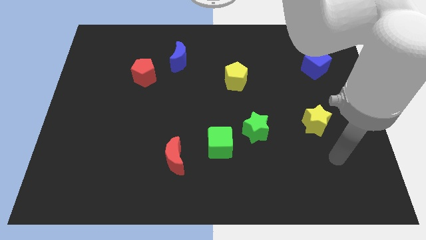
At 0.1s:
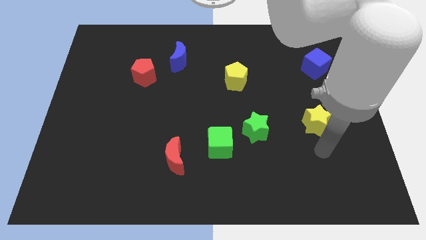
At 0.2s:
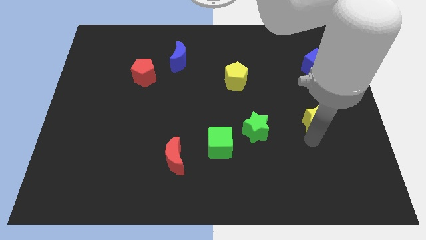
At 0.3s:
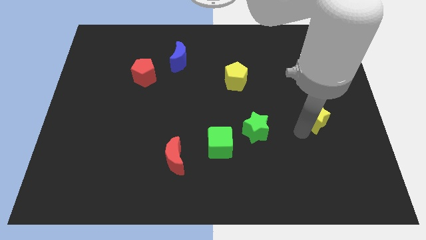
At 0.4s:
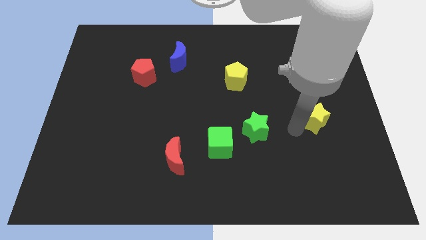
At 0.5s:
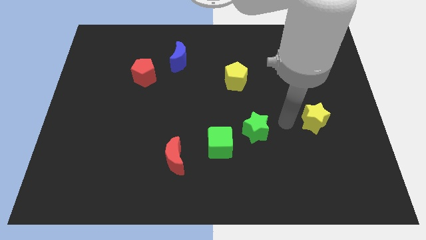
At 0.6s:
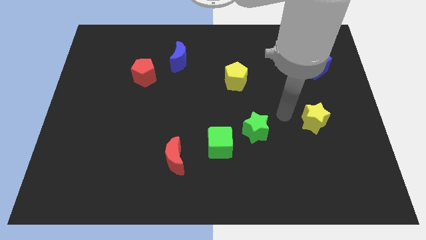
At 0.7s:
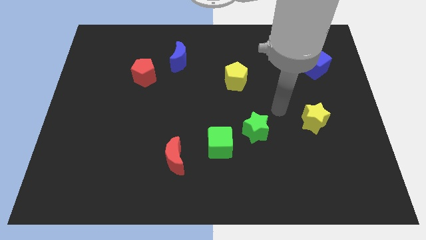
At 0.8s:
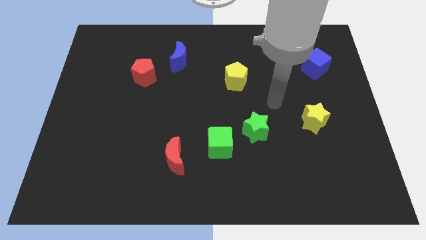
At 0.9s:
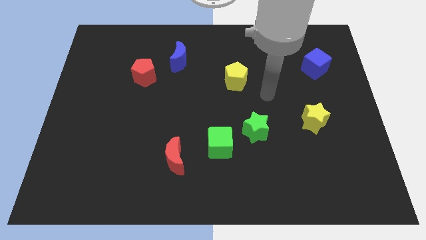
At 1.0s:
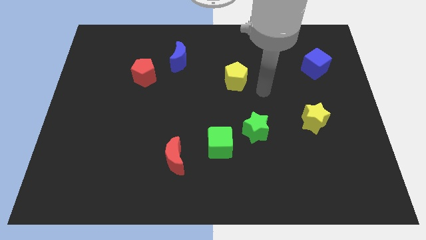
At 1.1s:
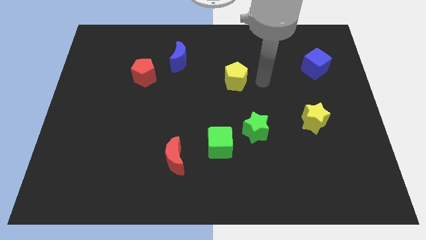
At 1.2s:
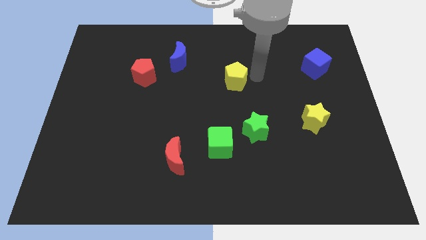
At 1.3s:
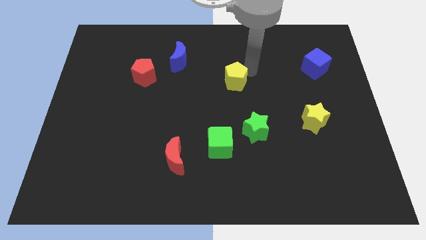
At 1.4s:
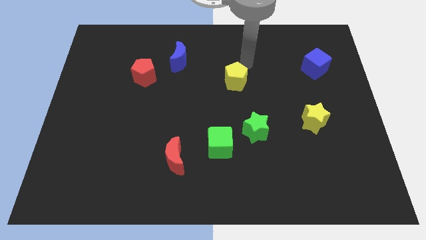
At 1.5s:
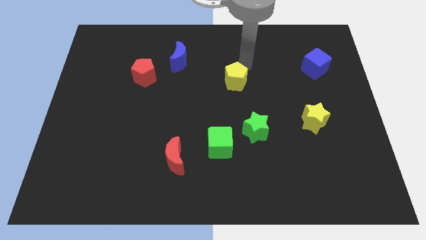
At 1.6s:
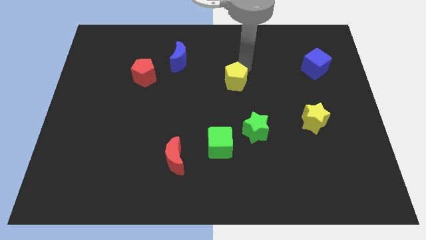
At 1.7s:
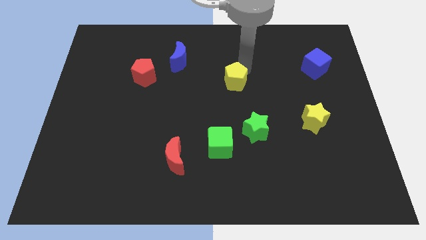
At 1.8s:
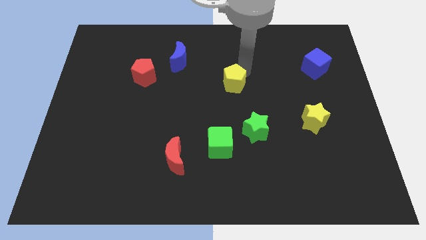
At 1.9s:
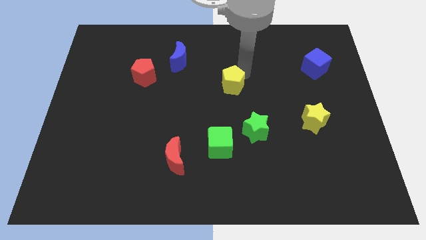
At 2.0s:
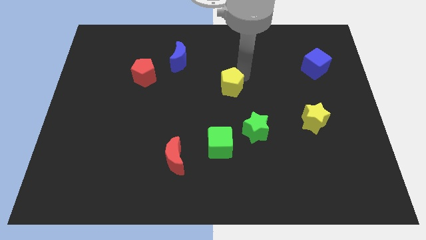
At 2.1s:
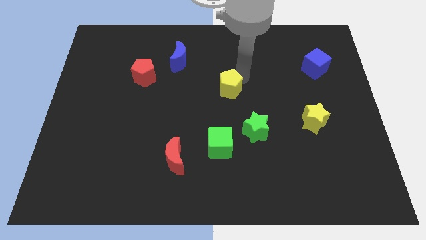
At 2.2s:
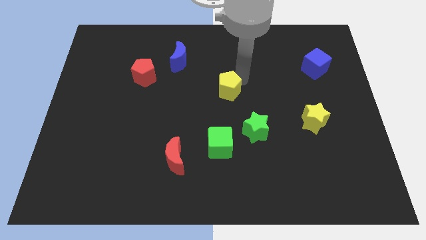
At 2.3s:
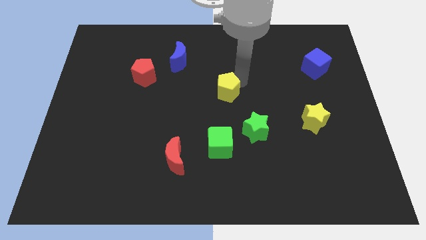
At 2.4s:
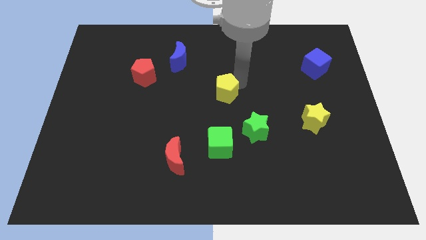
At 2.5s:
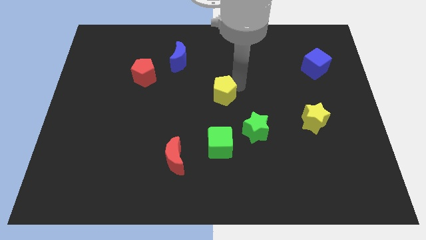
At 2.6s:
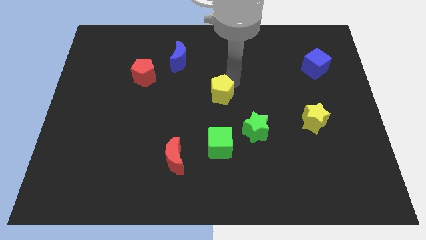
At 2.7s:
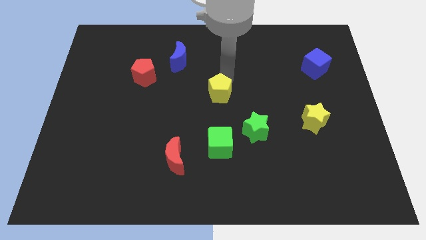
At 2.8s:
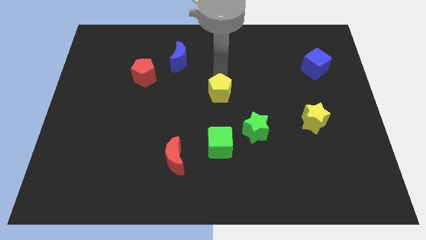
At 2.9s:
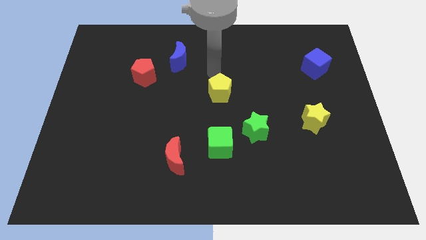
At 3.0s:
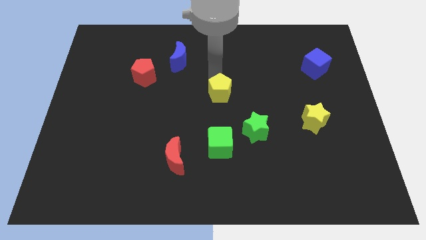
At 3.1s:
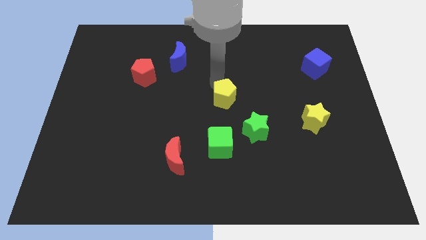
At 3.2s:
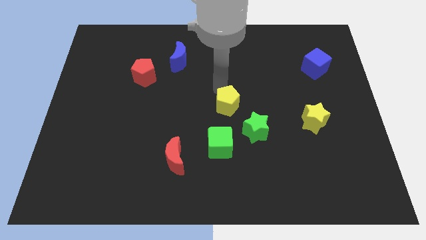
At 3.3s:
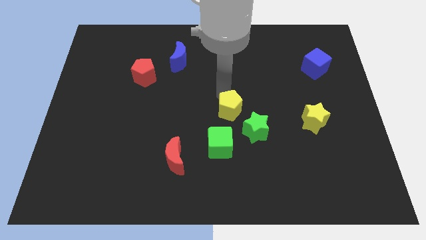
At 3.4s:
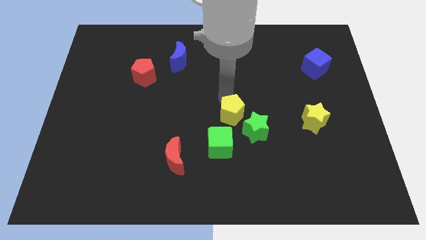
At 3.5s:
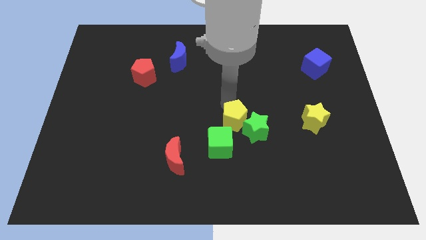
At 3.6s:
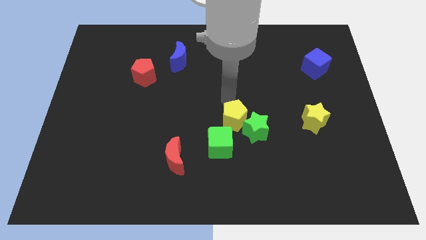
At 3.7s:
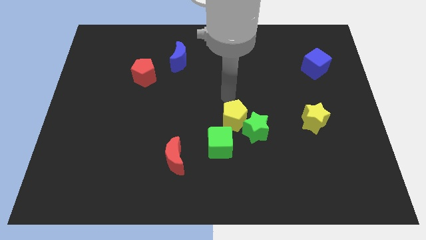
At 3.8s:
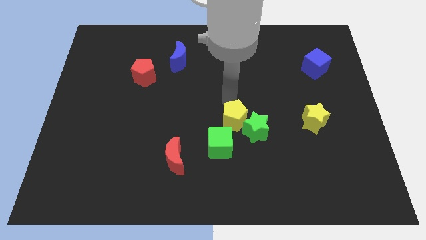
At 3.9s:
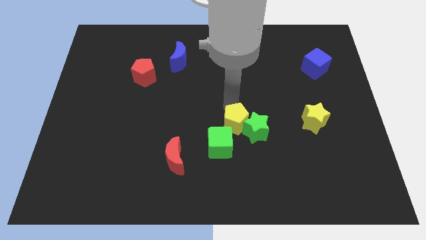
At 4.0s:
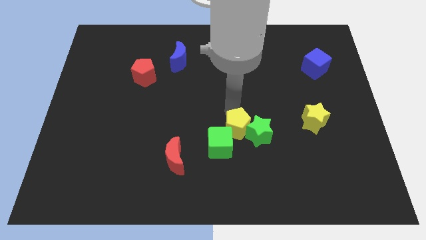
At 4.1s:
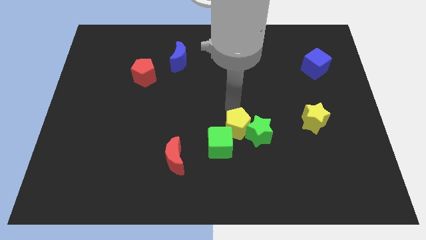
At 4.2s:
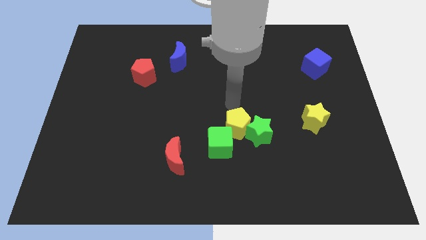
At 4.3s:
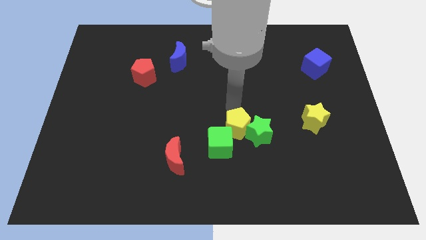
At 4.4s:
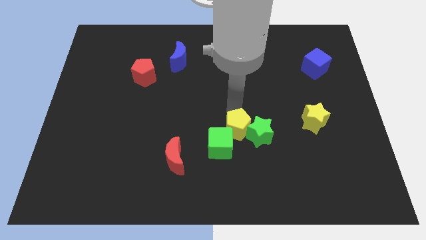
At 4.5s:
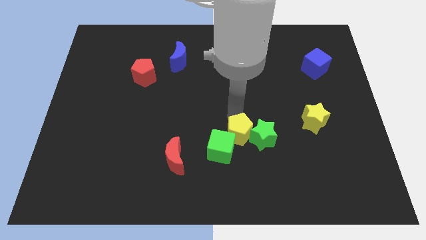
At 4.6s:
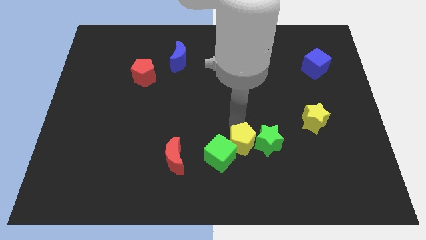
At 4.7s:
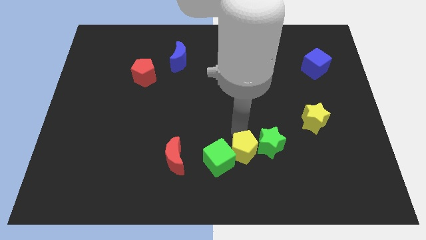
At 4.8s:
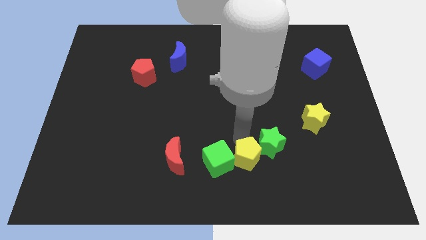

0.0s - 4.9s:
move the yellow pentagon to the bottom right of the green cube
